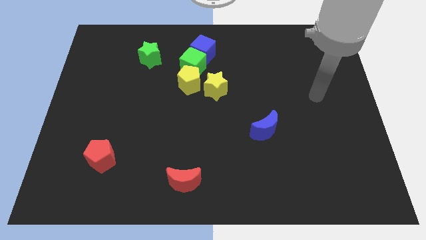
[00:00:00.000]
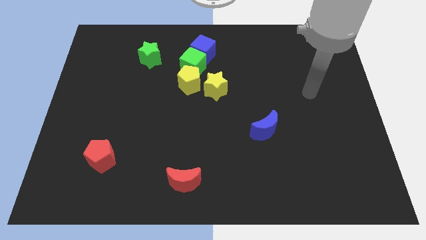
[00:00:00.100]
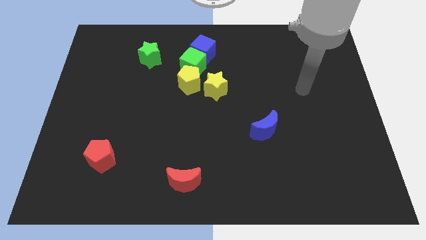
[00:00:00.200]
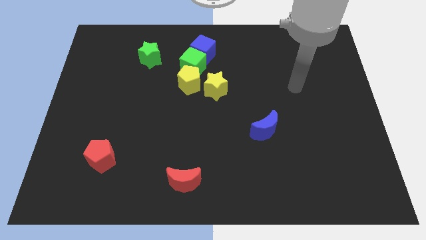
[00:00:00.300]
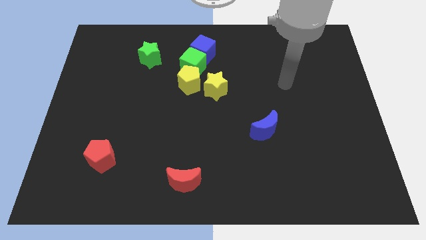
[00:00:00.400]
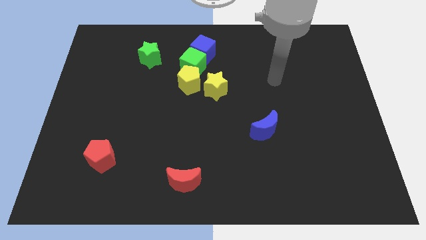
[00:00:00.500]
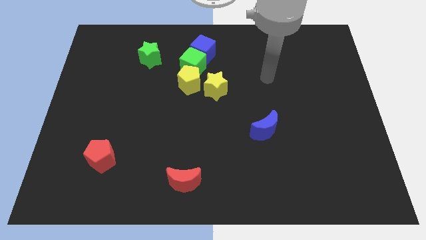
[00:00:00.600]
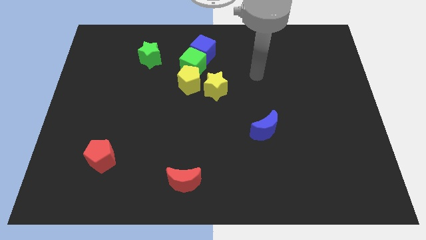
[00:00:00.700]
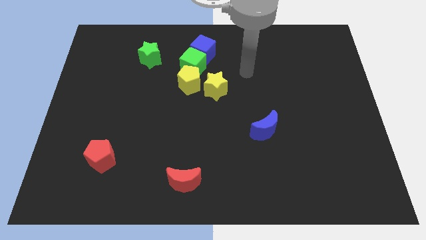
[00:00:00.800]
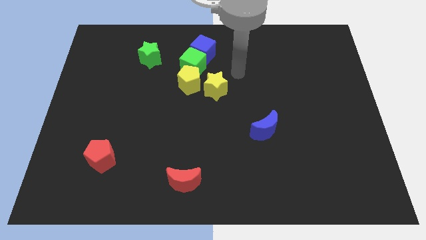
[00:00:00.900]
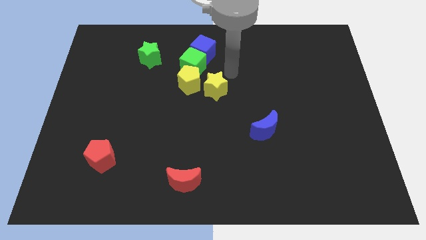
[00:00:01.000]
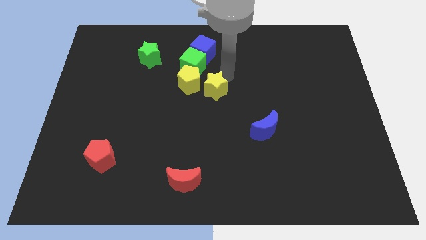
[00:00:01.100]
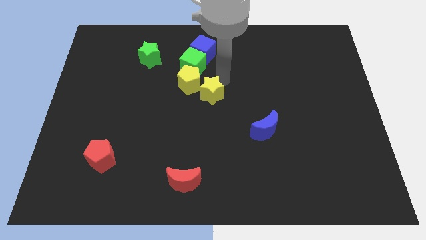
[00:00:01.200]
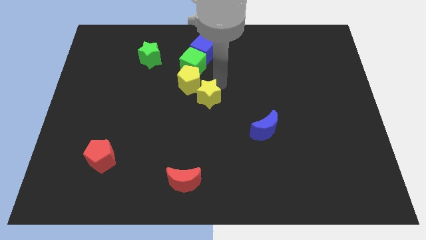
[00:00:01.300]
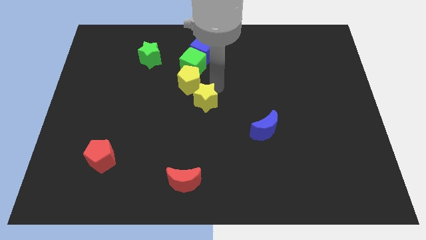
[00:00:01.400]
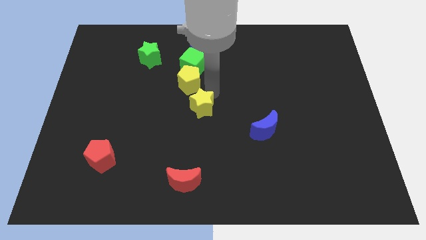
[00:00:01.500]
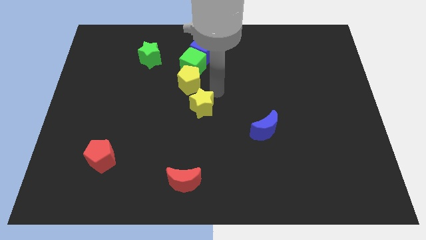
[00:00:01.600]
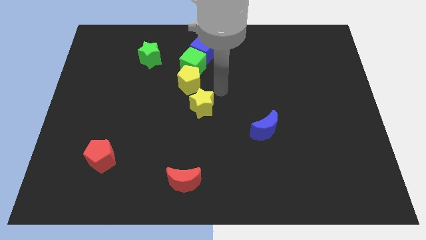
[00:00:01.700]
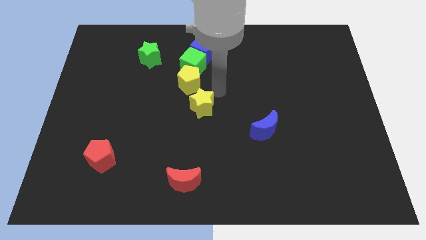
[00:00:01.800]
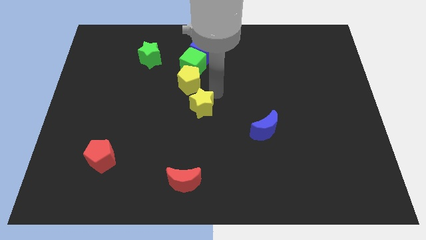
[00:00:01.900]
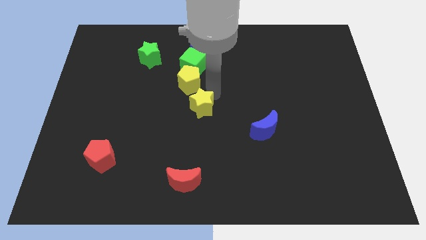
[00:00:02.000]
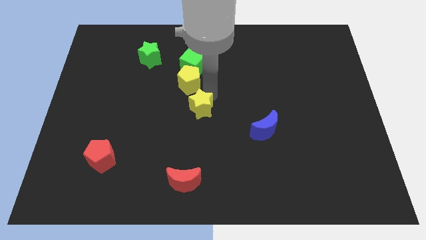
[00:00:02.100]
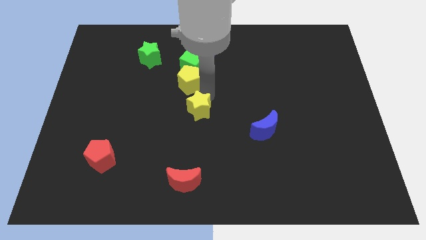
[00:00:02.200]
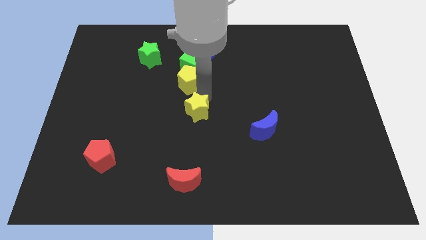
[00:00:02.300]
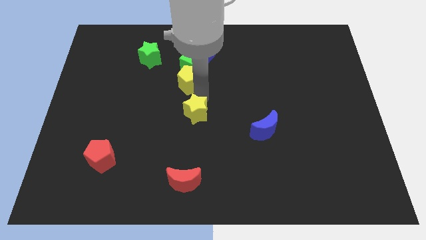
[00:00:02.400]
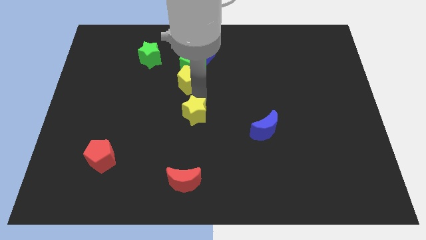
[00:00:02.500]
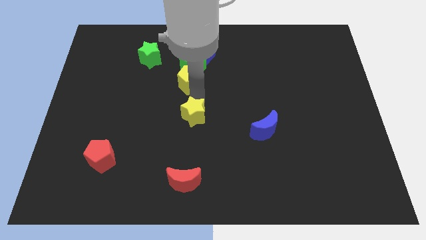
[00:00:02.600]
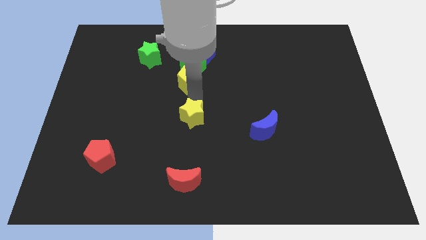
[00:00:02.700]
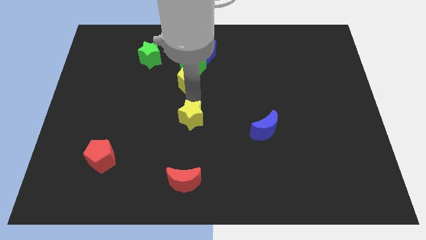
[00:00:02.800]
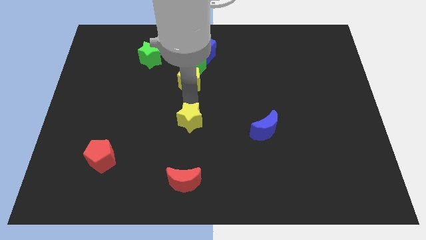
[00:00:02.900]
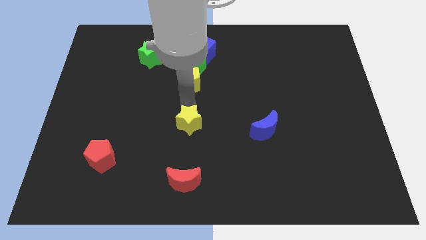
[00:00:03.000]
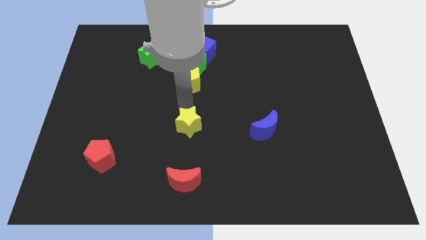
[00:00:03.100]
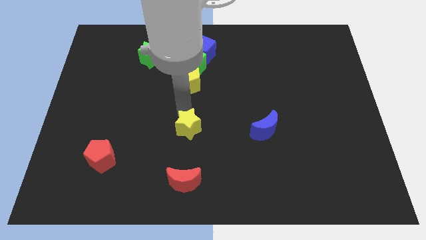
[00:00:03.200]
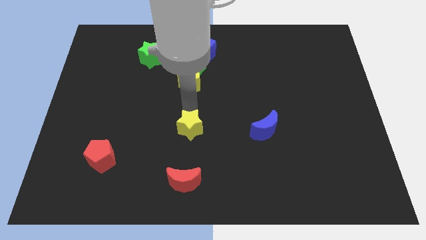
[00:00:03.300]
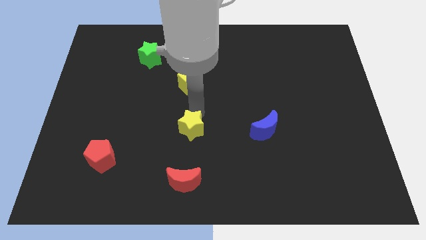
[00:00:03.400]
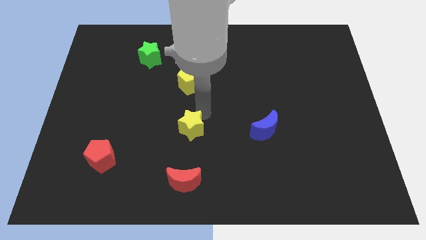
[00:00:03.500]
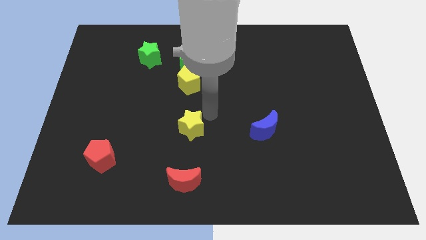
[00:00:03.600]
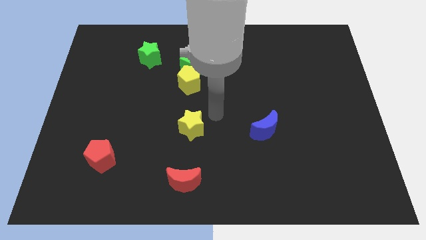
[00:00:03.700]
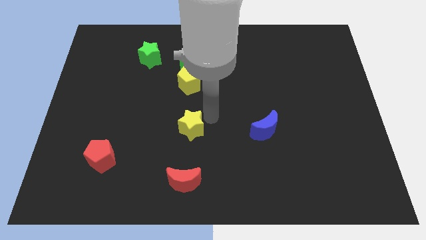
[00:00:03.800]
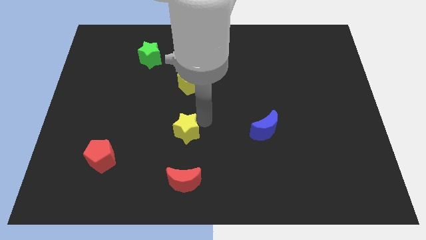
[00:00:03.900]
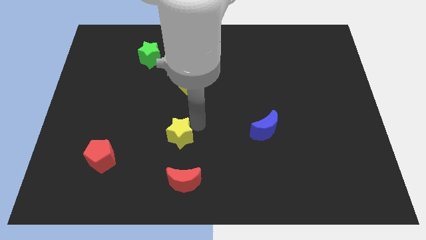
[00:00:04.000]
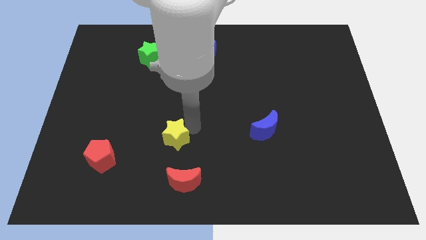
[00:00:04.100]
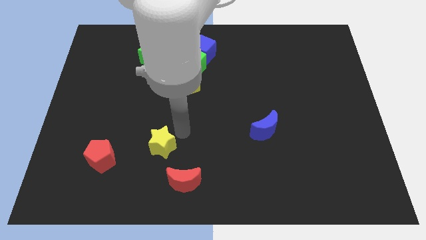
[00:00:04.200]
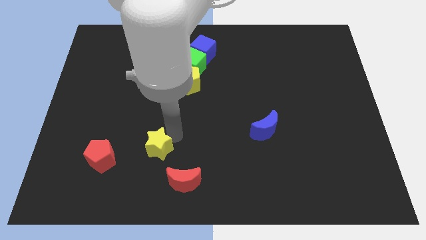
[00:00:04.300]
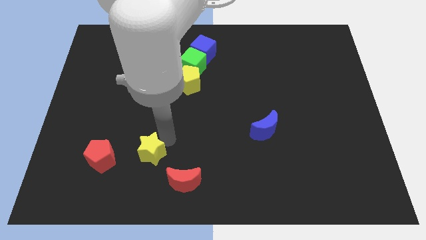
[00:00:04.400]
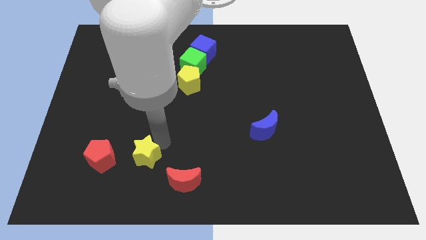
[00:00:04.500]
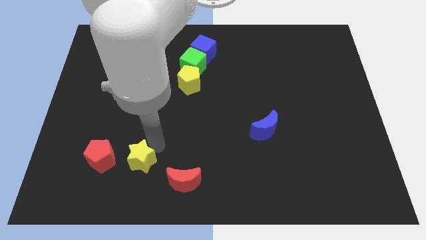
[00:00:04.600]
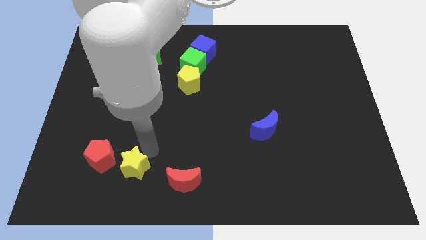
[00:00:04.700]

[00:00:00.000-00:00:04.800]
slide the yellow star to the bottom right of the red pentagon

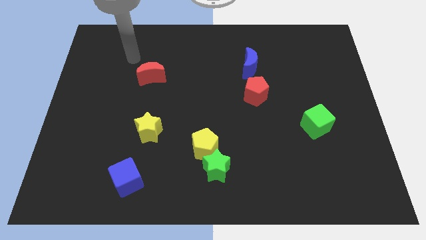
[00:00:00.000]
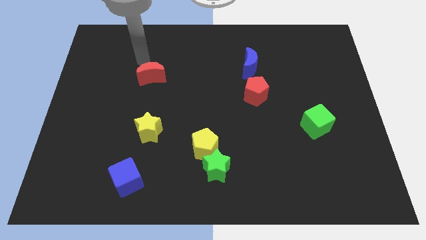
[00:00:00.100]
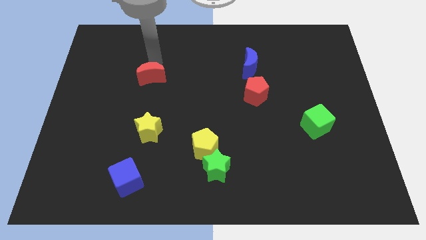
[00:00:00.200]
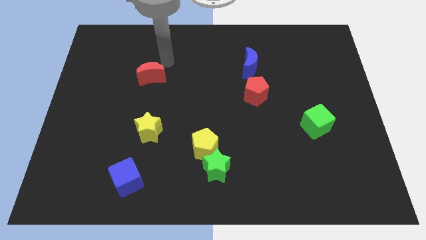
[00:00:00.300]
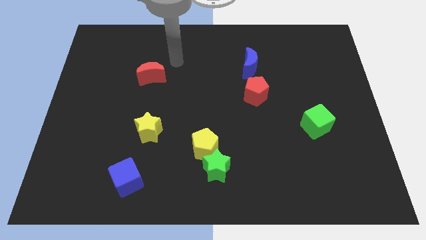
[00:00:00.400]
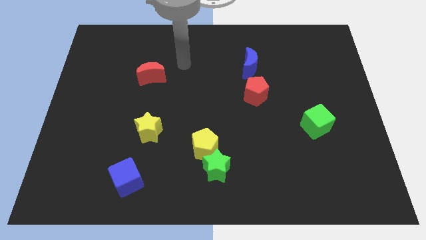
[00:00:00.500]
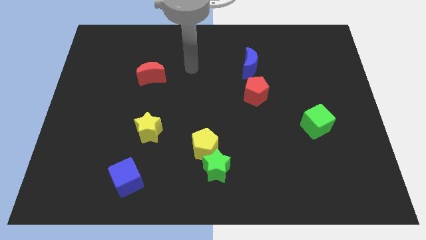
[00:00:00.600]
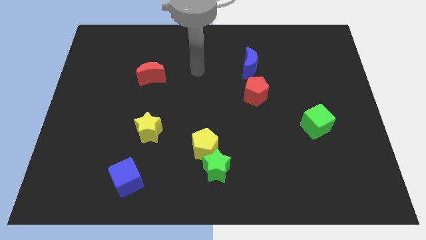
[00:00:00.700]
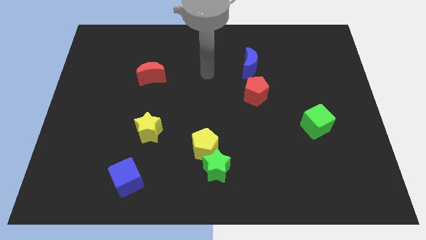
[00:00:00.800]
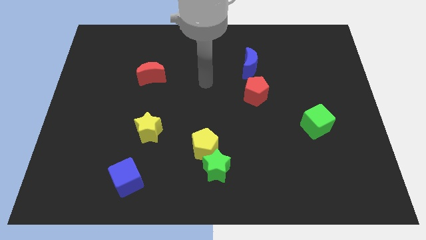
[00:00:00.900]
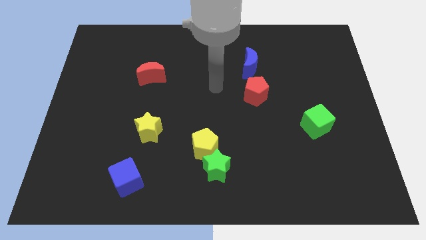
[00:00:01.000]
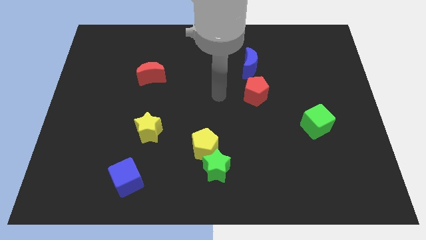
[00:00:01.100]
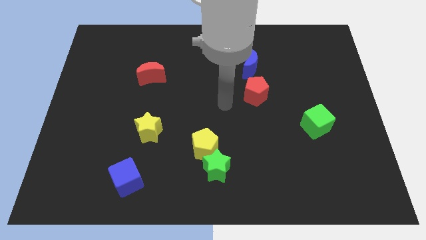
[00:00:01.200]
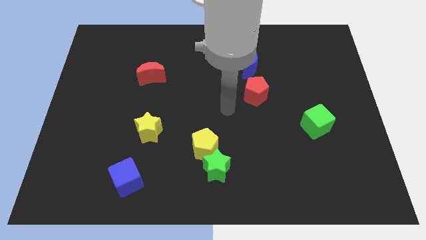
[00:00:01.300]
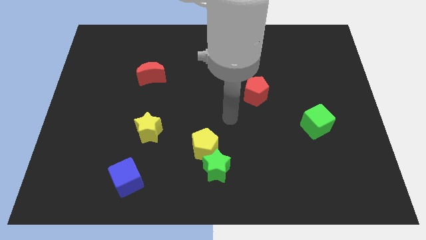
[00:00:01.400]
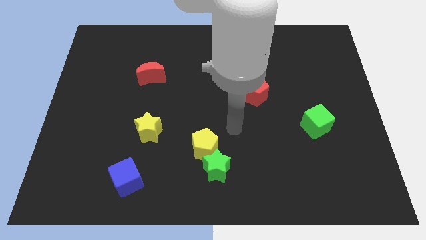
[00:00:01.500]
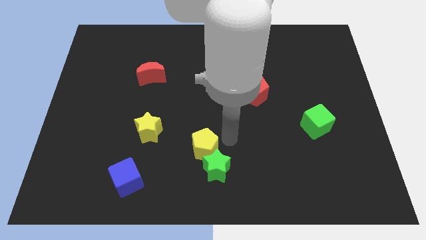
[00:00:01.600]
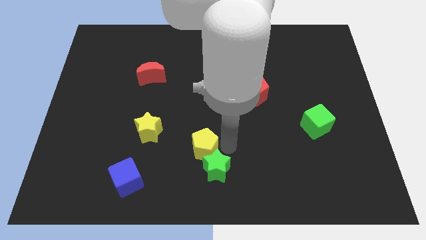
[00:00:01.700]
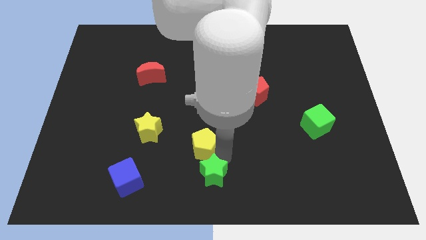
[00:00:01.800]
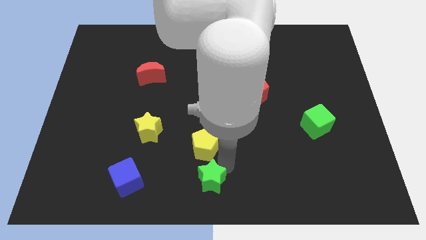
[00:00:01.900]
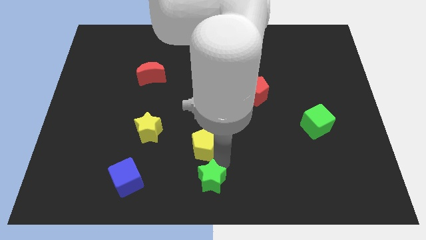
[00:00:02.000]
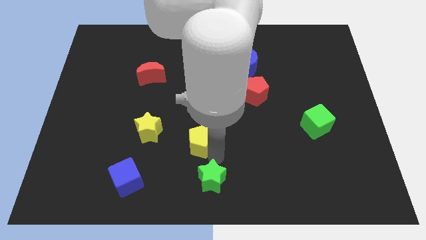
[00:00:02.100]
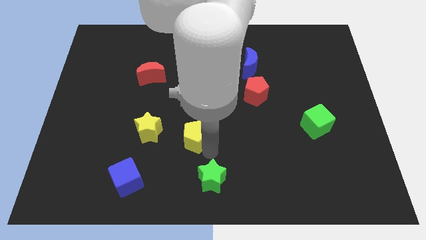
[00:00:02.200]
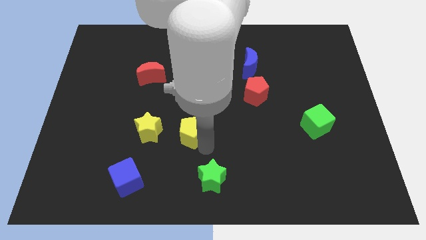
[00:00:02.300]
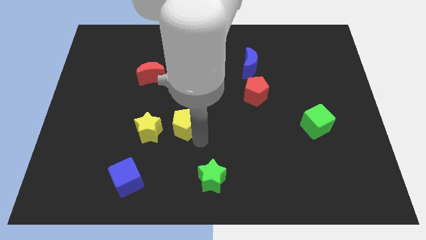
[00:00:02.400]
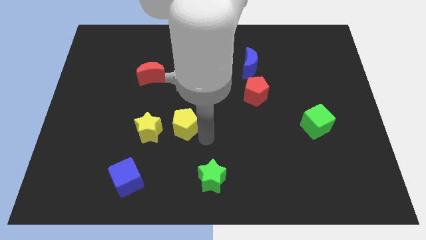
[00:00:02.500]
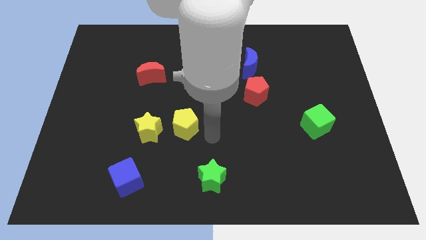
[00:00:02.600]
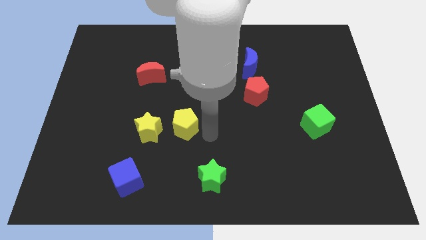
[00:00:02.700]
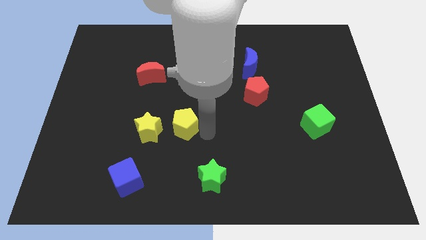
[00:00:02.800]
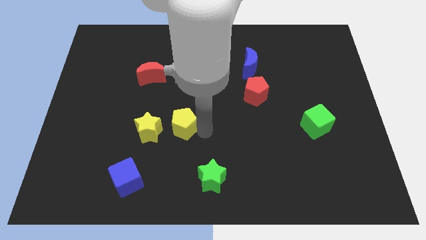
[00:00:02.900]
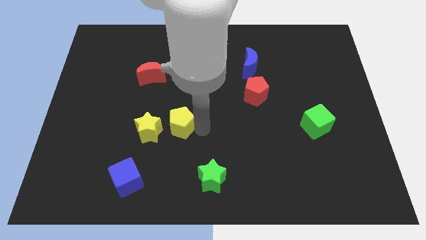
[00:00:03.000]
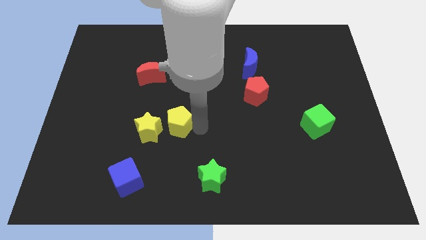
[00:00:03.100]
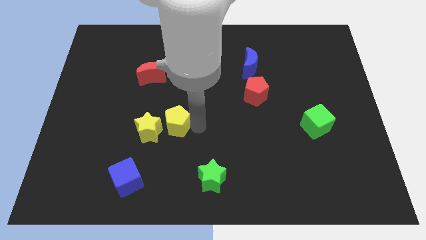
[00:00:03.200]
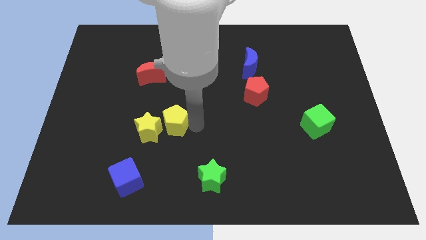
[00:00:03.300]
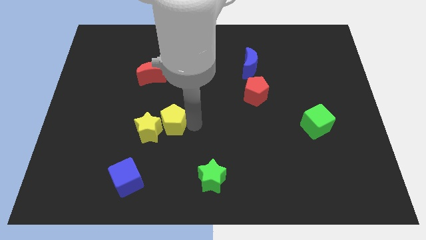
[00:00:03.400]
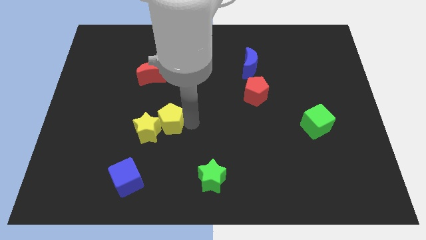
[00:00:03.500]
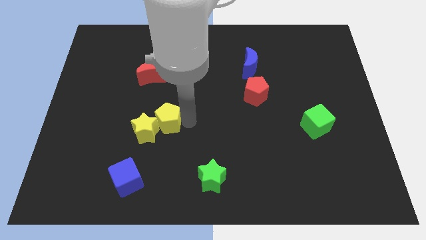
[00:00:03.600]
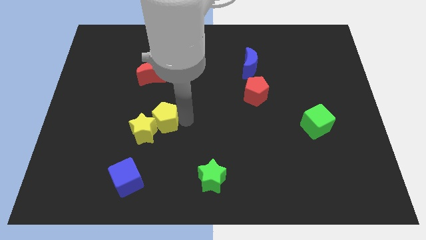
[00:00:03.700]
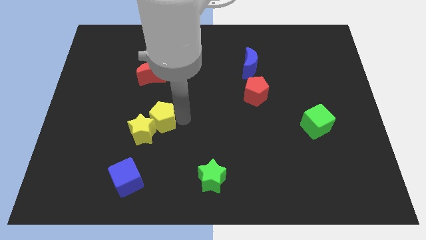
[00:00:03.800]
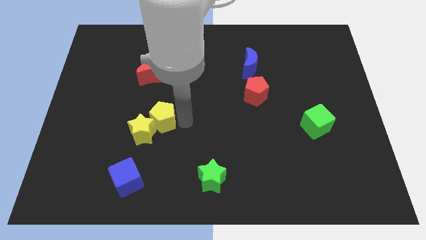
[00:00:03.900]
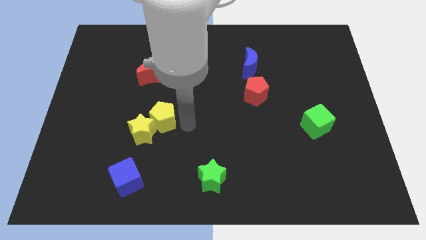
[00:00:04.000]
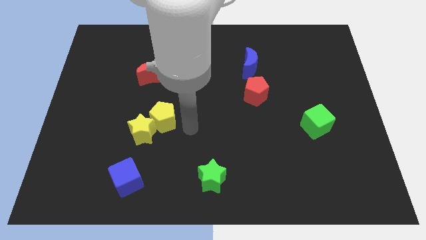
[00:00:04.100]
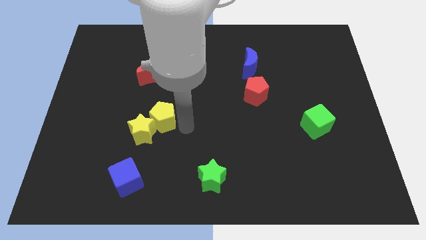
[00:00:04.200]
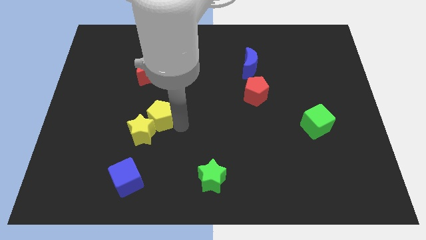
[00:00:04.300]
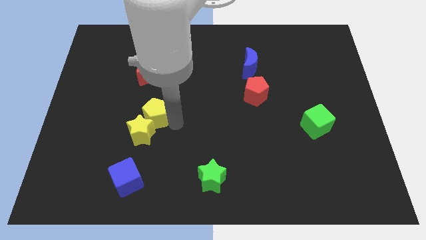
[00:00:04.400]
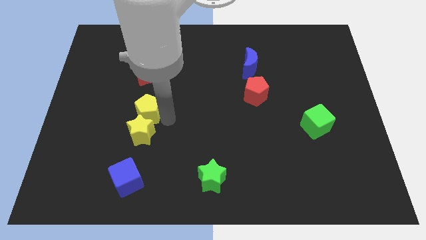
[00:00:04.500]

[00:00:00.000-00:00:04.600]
push the yellow pentagon to the top left of the yellow star
